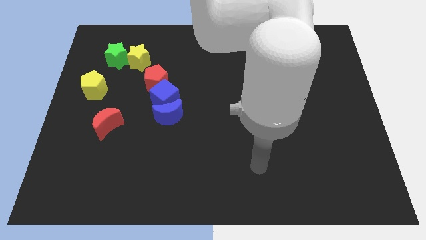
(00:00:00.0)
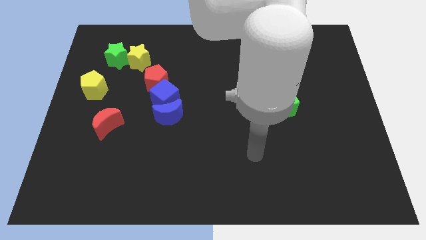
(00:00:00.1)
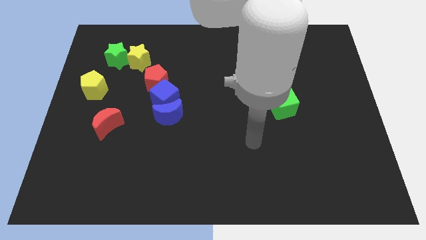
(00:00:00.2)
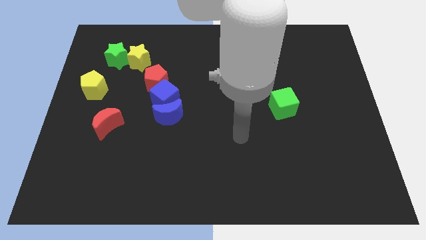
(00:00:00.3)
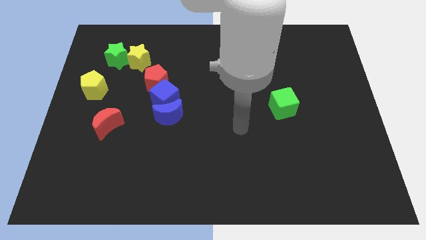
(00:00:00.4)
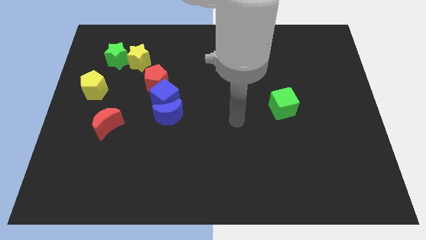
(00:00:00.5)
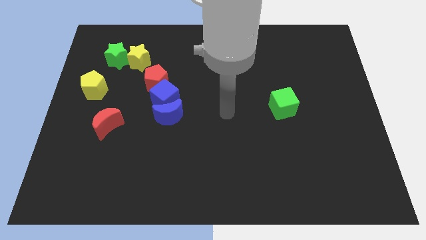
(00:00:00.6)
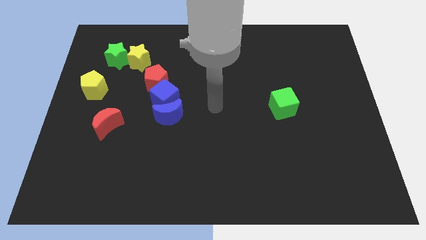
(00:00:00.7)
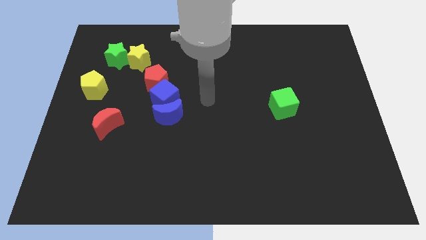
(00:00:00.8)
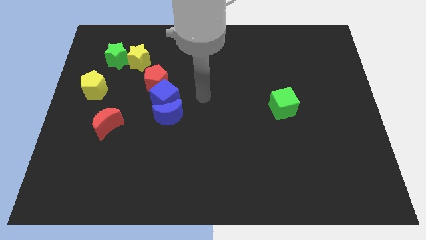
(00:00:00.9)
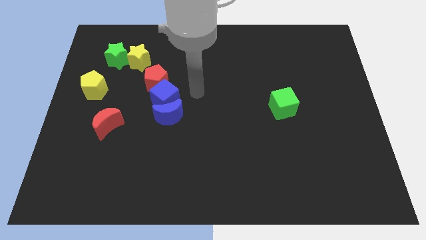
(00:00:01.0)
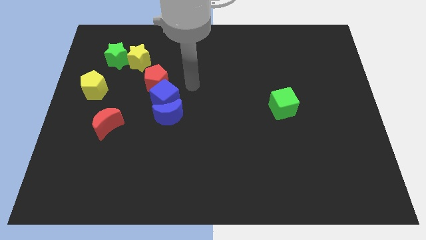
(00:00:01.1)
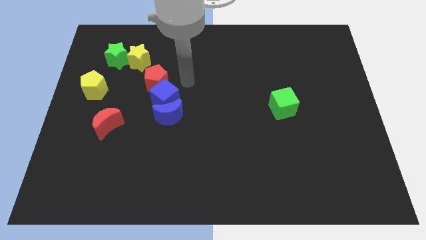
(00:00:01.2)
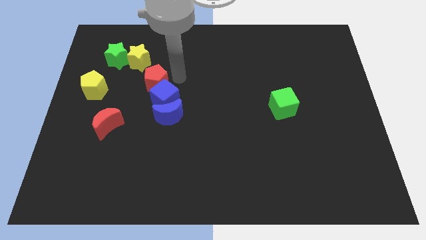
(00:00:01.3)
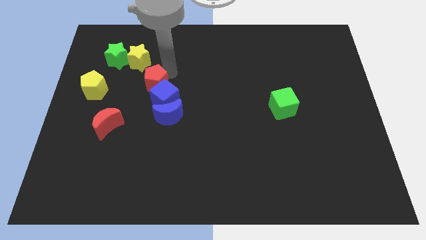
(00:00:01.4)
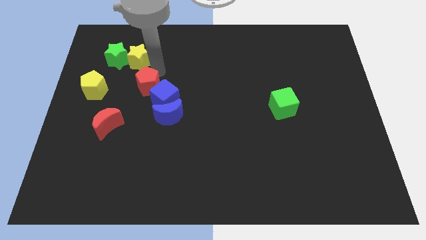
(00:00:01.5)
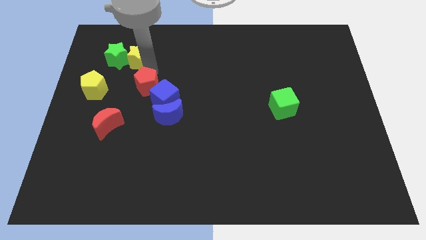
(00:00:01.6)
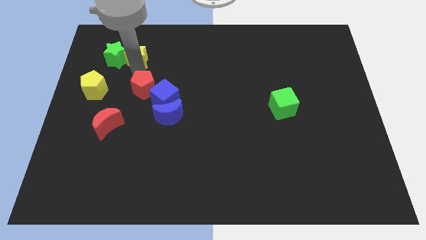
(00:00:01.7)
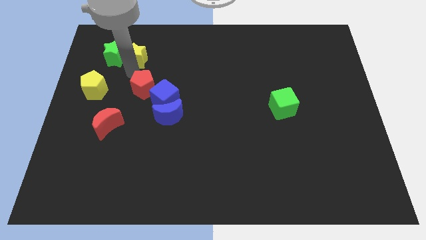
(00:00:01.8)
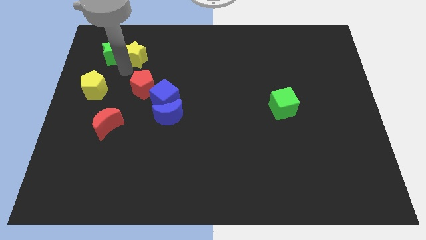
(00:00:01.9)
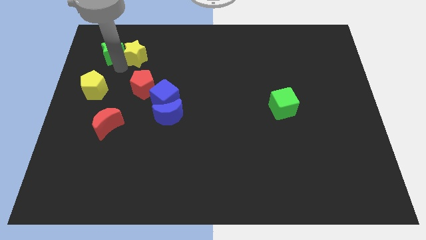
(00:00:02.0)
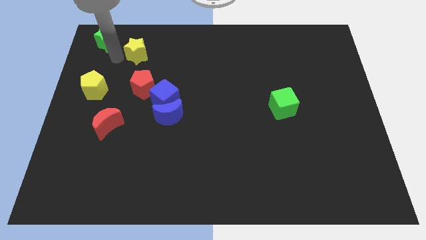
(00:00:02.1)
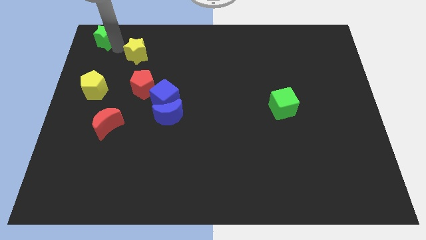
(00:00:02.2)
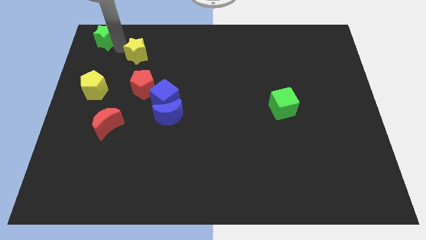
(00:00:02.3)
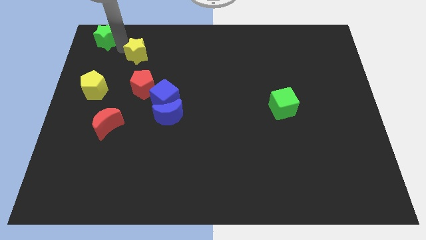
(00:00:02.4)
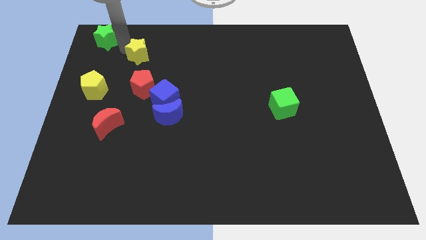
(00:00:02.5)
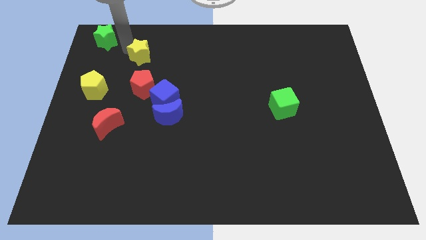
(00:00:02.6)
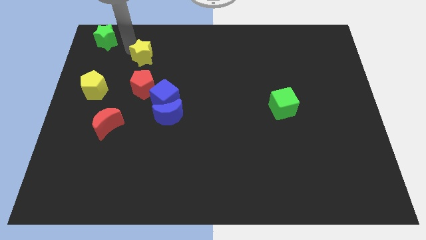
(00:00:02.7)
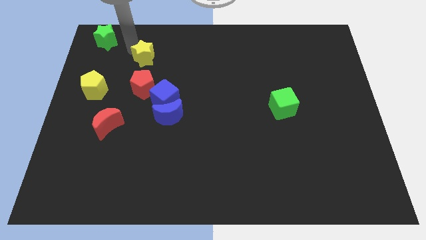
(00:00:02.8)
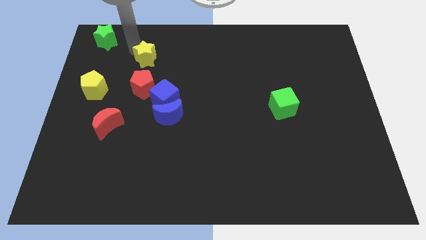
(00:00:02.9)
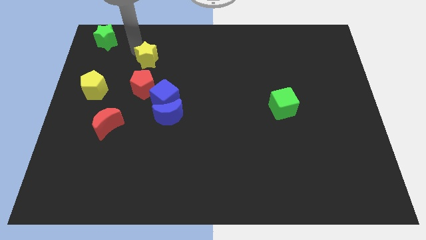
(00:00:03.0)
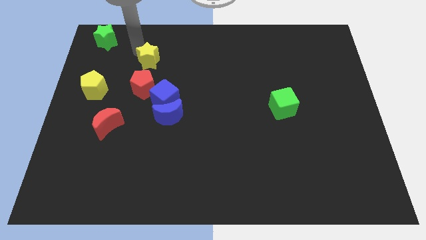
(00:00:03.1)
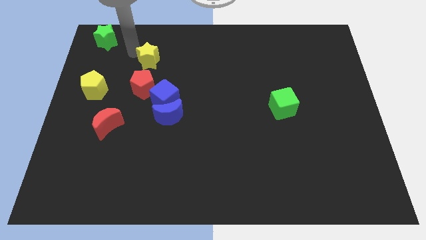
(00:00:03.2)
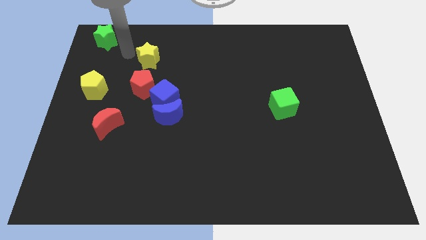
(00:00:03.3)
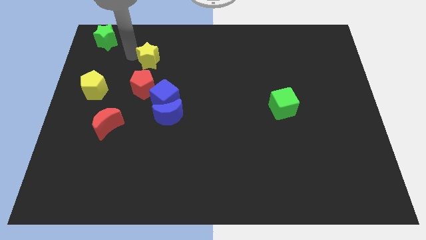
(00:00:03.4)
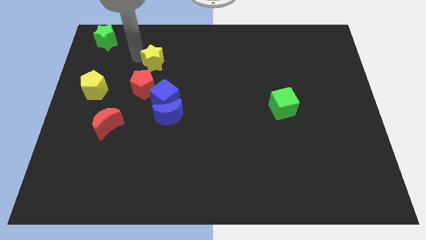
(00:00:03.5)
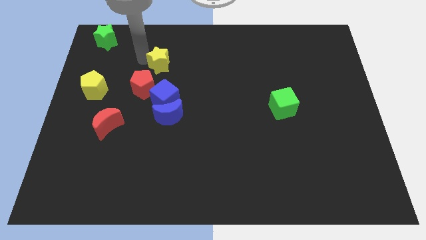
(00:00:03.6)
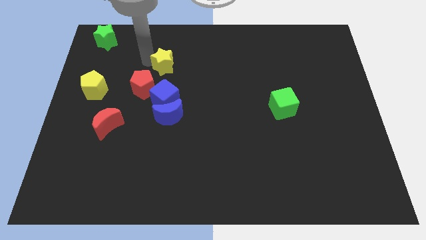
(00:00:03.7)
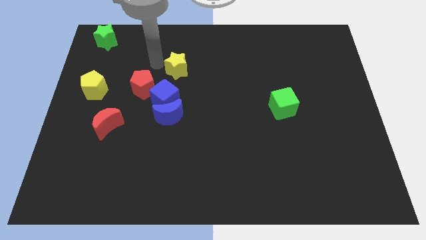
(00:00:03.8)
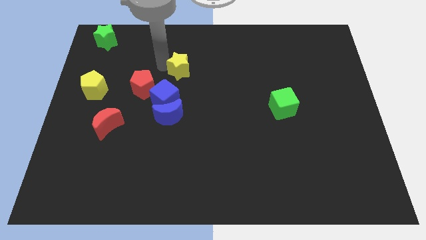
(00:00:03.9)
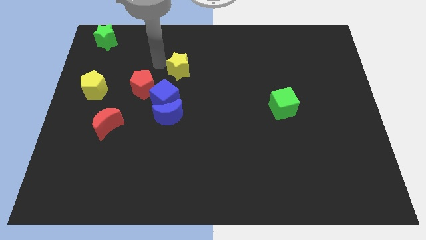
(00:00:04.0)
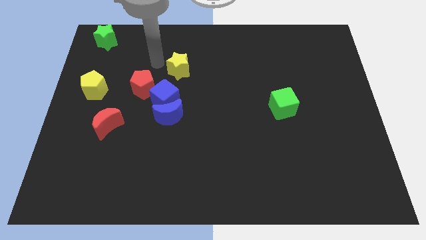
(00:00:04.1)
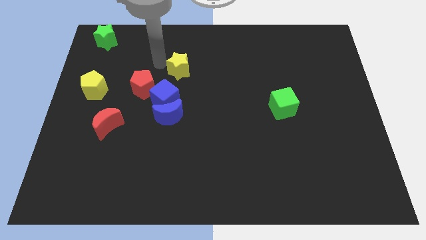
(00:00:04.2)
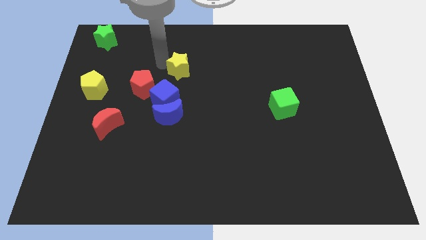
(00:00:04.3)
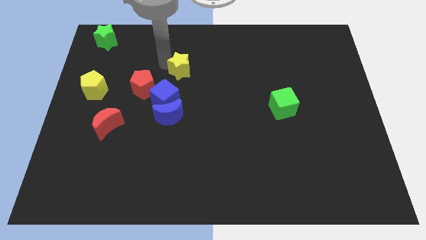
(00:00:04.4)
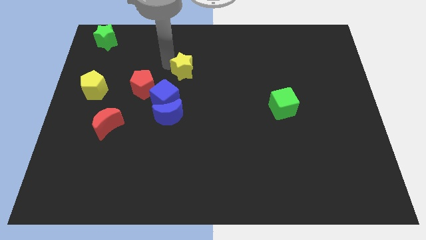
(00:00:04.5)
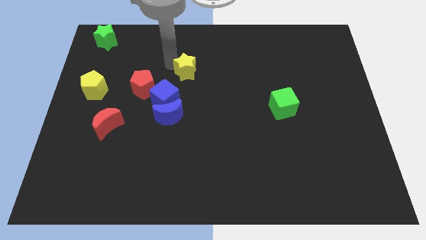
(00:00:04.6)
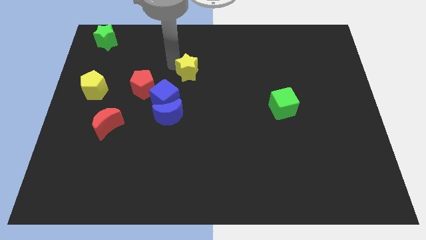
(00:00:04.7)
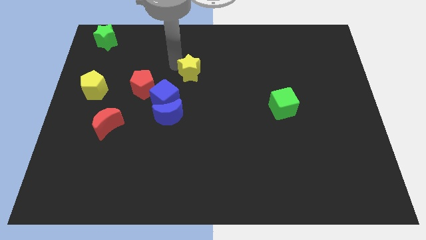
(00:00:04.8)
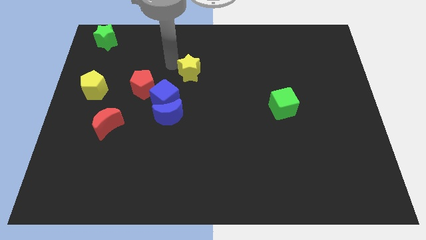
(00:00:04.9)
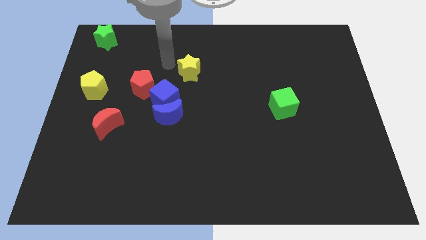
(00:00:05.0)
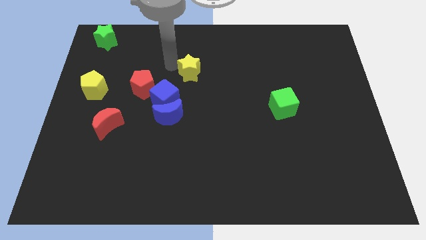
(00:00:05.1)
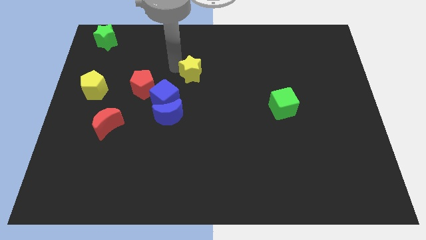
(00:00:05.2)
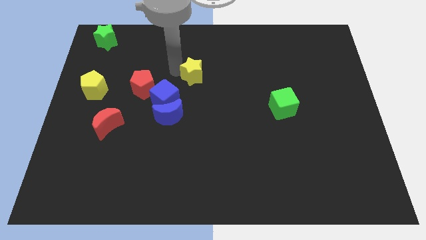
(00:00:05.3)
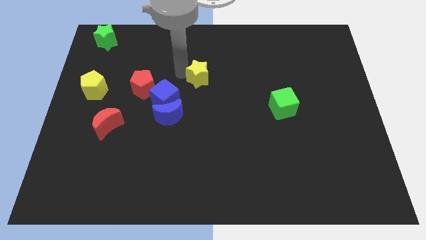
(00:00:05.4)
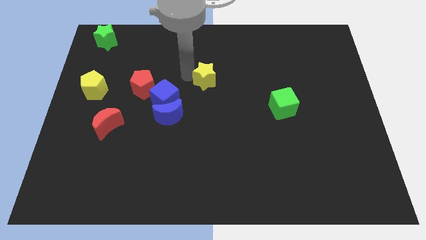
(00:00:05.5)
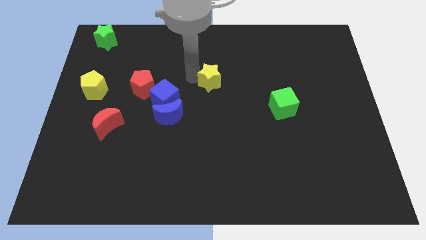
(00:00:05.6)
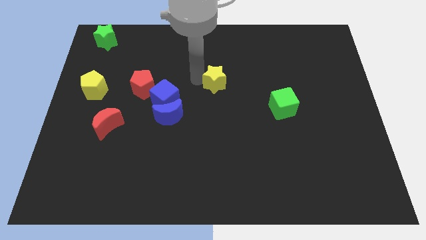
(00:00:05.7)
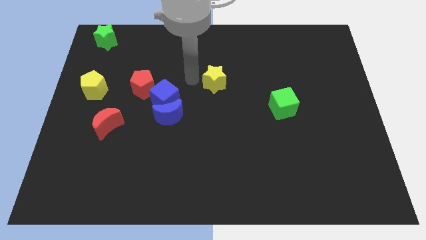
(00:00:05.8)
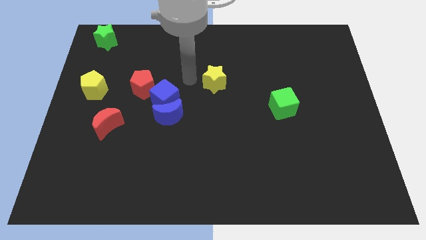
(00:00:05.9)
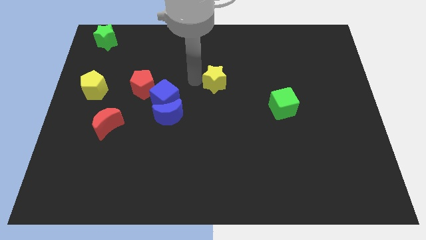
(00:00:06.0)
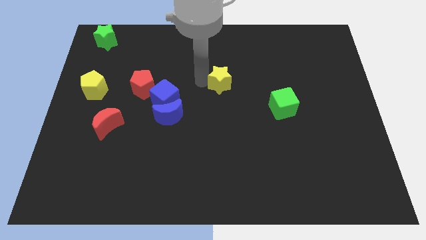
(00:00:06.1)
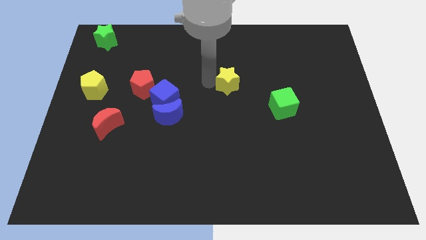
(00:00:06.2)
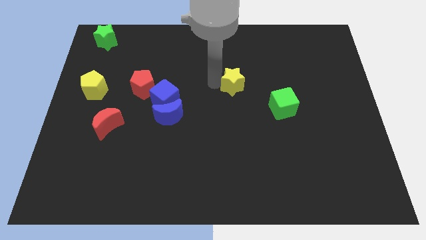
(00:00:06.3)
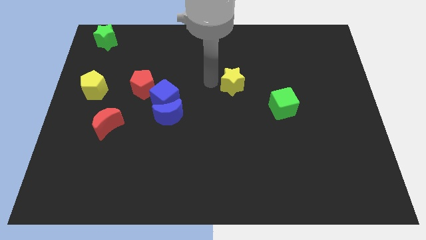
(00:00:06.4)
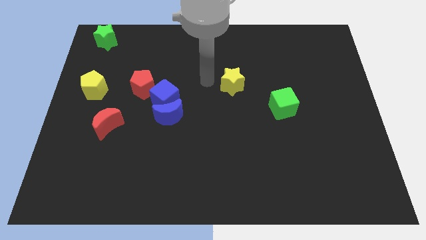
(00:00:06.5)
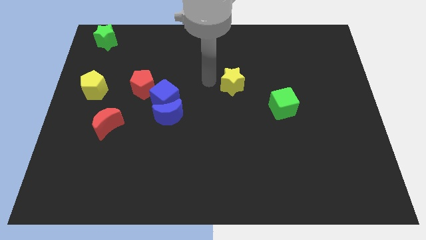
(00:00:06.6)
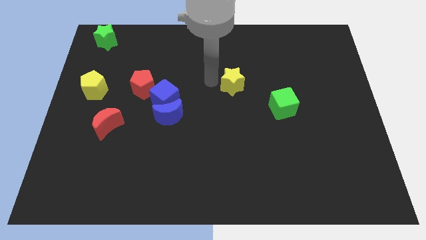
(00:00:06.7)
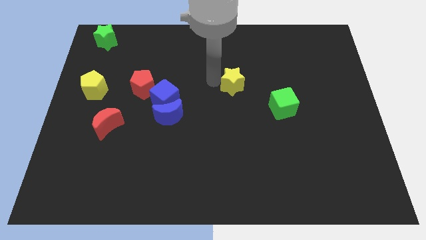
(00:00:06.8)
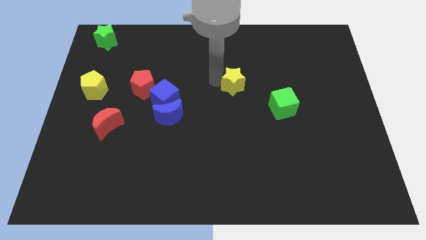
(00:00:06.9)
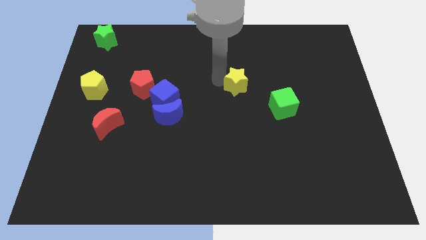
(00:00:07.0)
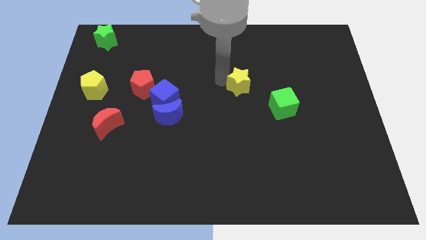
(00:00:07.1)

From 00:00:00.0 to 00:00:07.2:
slide the yellow star to the top left of the green cube

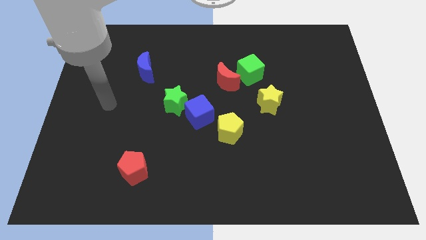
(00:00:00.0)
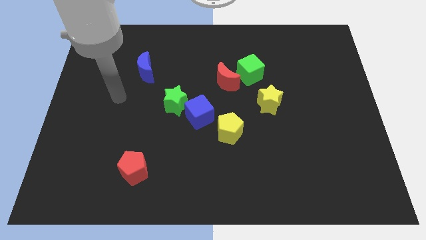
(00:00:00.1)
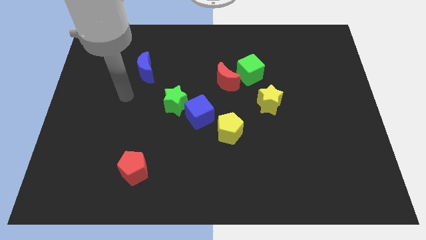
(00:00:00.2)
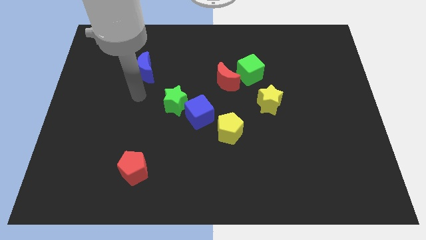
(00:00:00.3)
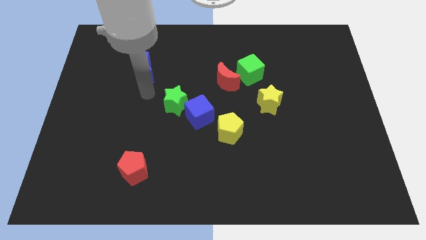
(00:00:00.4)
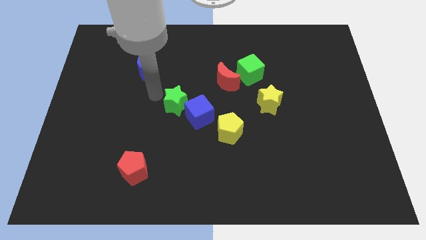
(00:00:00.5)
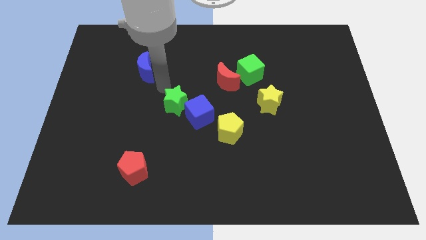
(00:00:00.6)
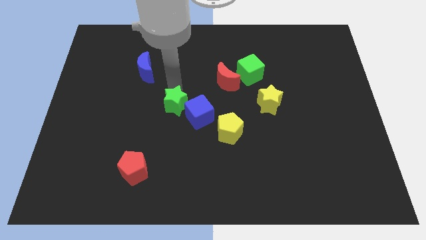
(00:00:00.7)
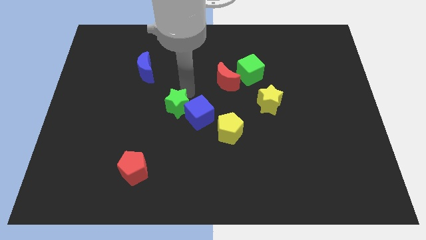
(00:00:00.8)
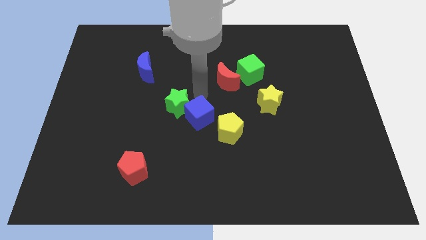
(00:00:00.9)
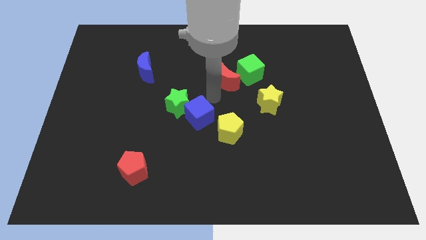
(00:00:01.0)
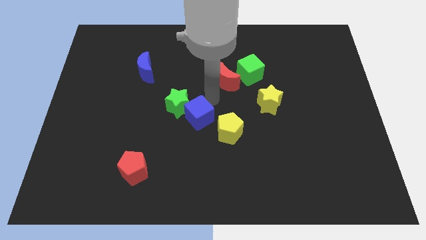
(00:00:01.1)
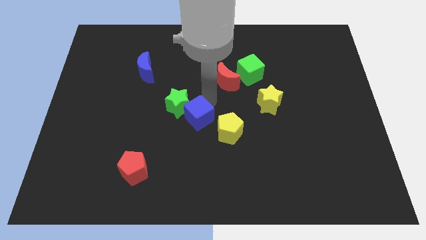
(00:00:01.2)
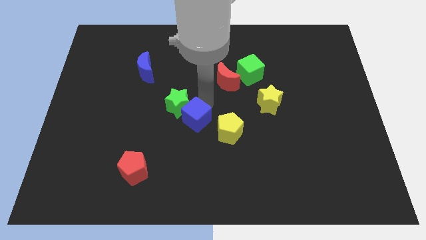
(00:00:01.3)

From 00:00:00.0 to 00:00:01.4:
move the blue cube to the bottom side of the green star
